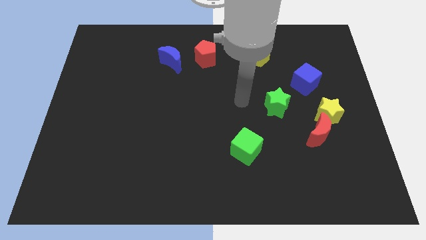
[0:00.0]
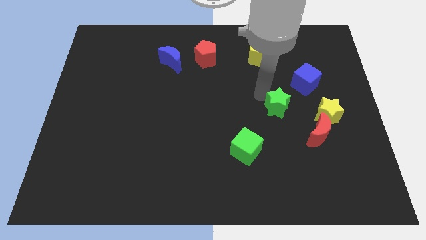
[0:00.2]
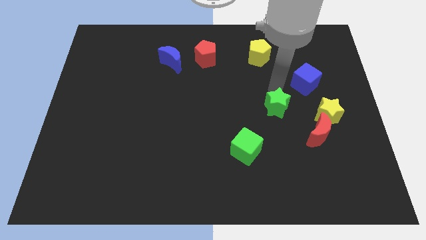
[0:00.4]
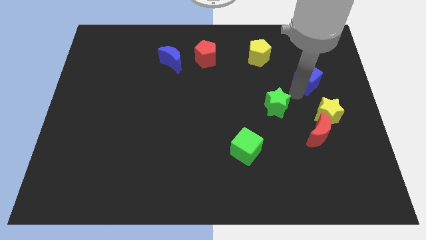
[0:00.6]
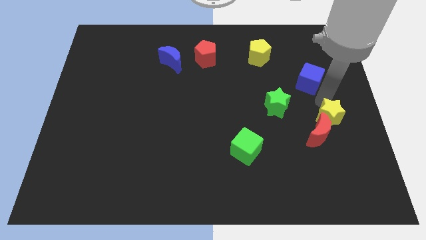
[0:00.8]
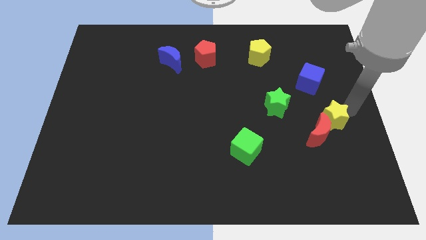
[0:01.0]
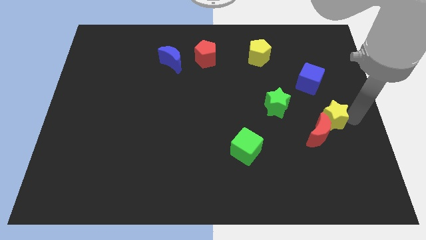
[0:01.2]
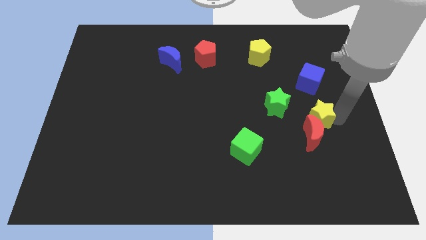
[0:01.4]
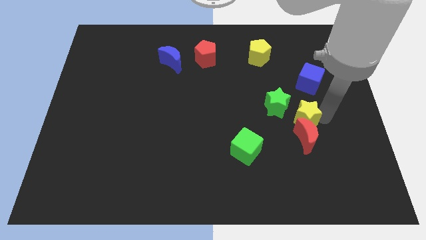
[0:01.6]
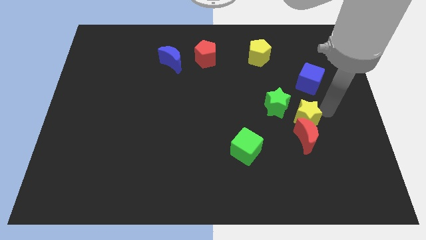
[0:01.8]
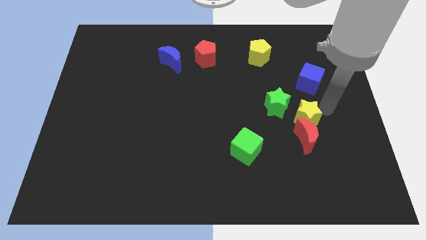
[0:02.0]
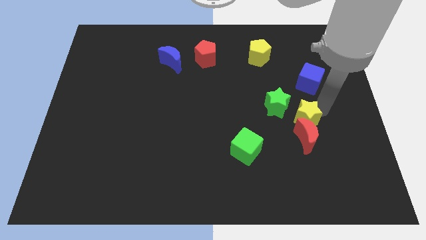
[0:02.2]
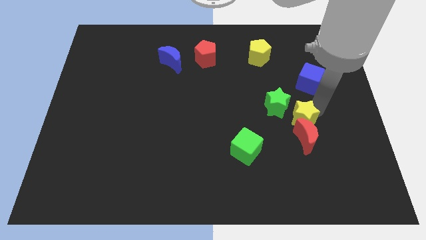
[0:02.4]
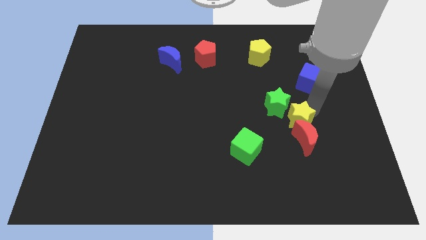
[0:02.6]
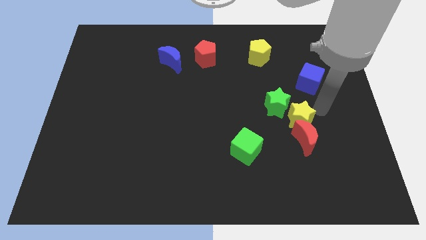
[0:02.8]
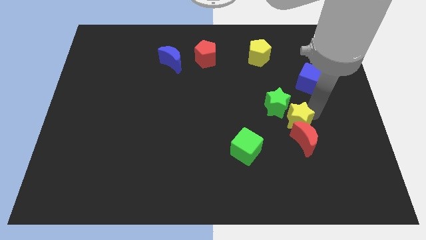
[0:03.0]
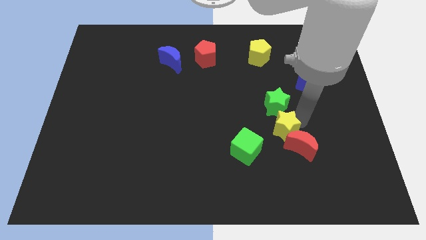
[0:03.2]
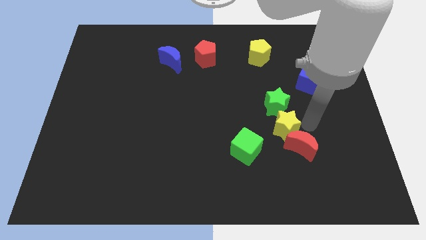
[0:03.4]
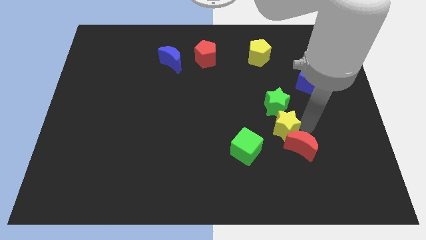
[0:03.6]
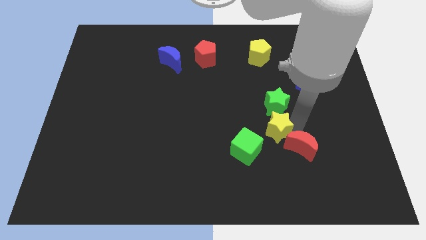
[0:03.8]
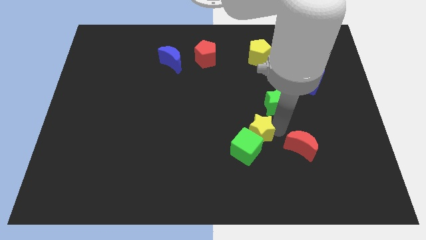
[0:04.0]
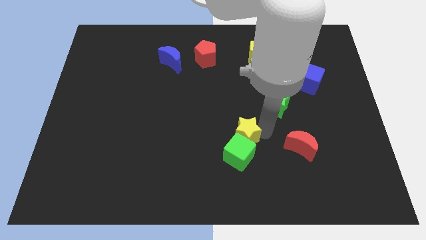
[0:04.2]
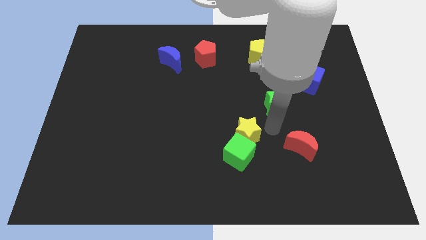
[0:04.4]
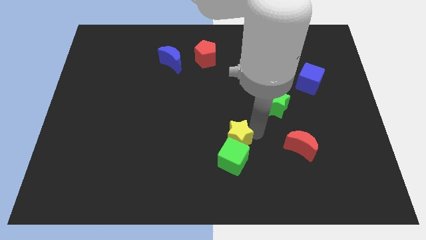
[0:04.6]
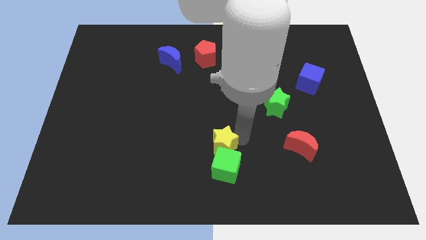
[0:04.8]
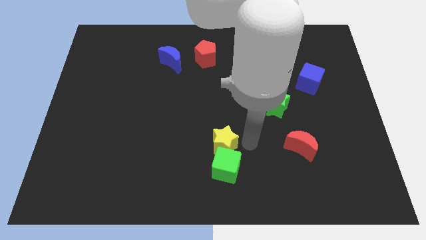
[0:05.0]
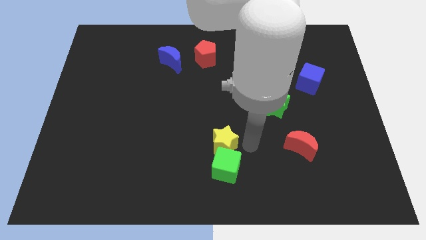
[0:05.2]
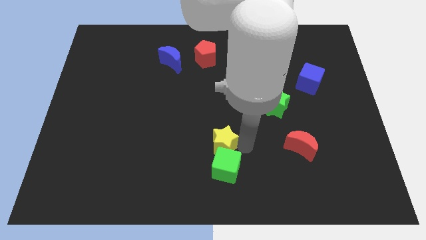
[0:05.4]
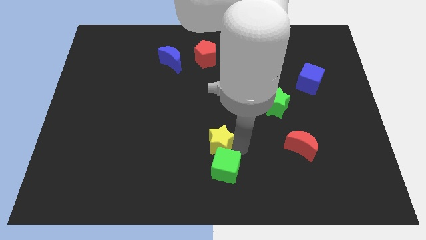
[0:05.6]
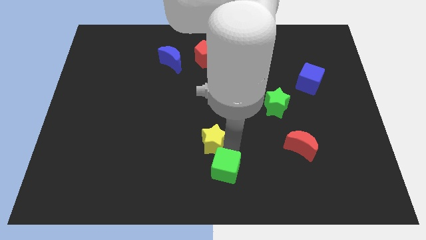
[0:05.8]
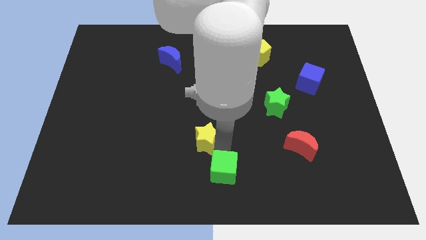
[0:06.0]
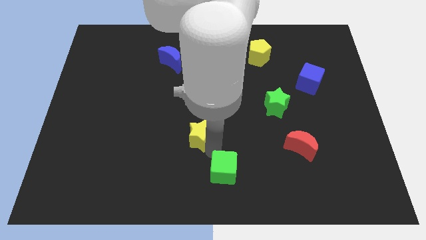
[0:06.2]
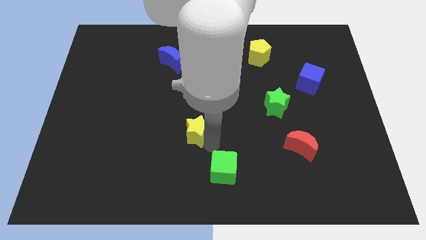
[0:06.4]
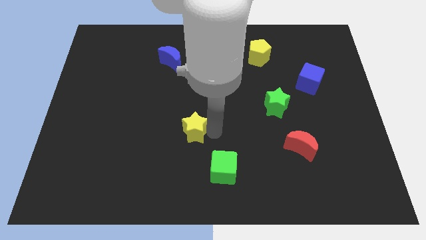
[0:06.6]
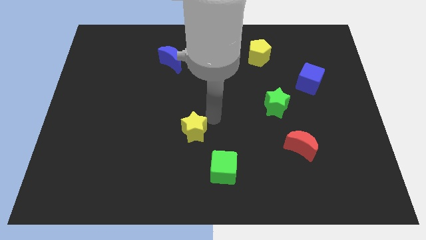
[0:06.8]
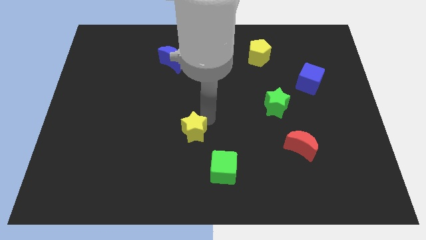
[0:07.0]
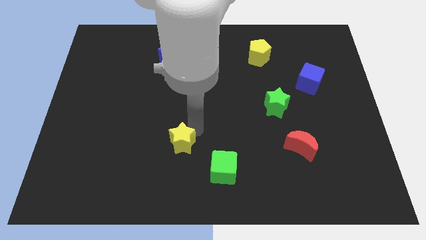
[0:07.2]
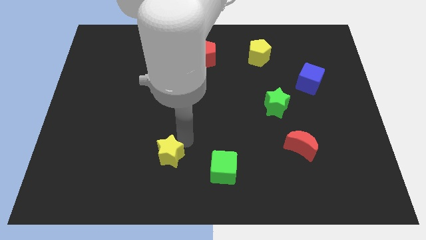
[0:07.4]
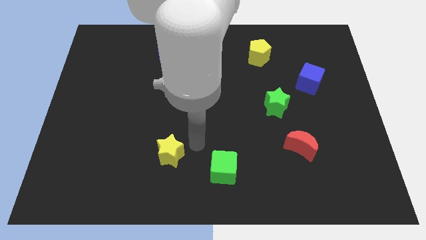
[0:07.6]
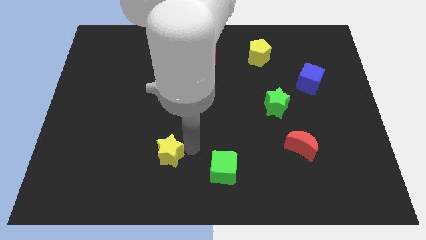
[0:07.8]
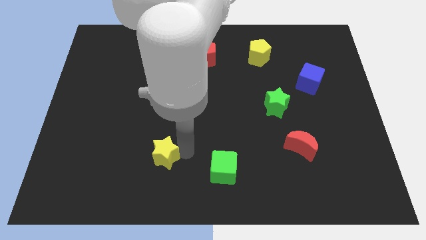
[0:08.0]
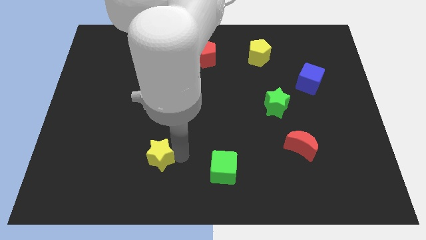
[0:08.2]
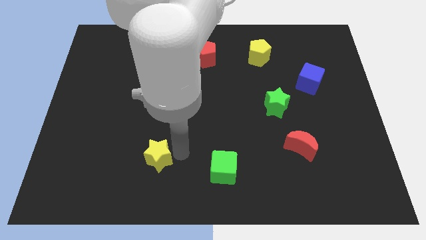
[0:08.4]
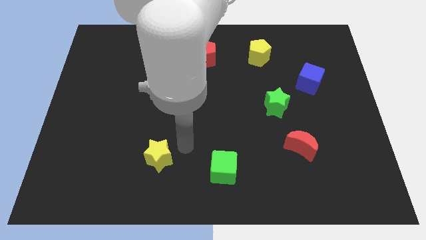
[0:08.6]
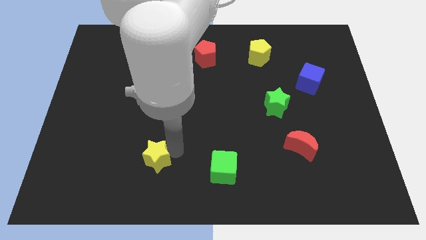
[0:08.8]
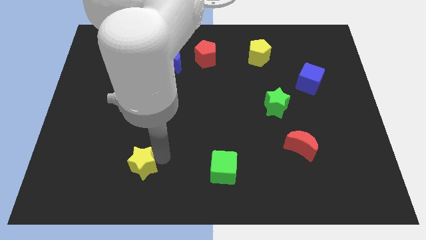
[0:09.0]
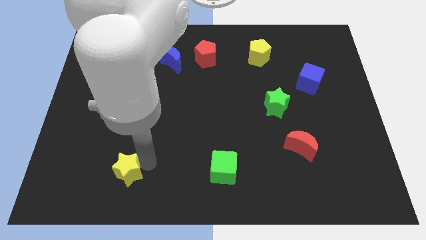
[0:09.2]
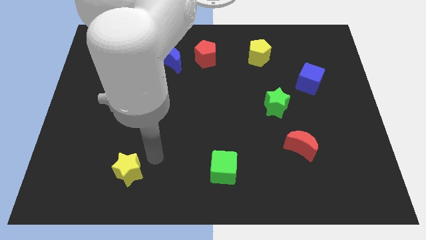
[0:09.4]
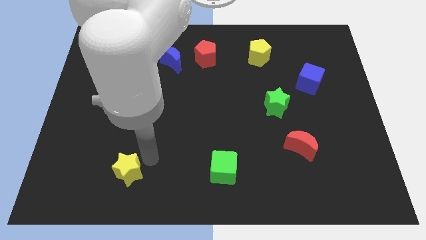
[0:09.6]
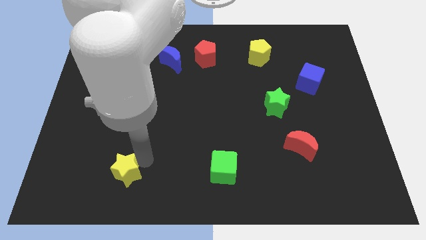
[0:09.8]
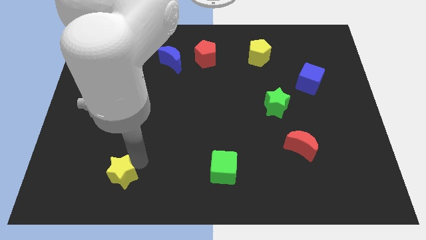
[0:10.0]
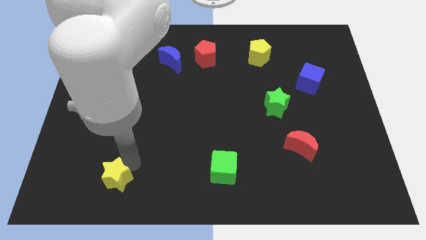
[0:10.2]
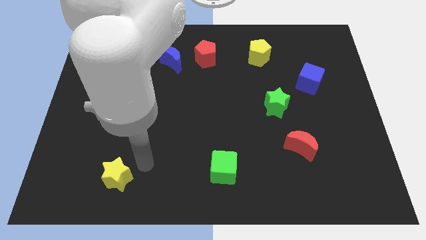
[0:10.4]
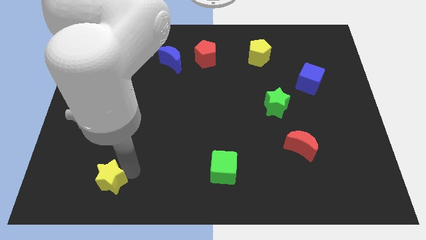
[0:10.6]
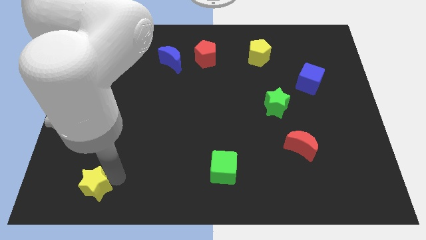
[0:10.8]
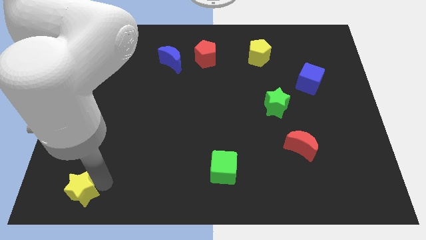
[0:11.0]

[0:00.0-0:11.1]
put the yellow star to the bottom left corner
